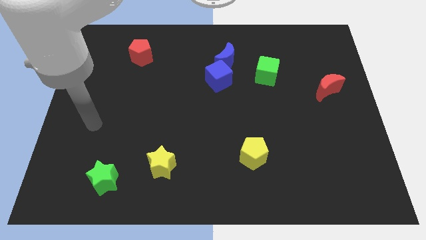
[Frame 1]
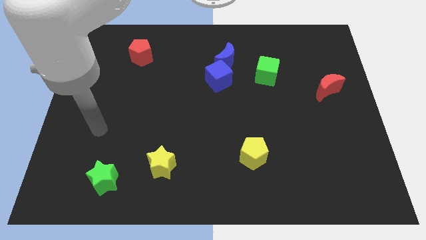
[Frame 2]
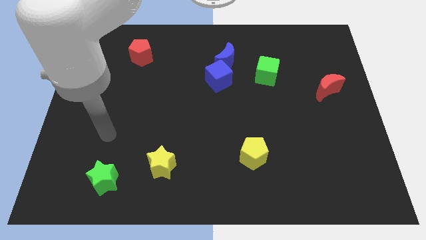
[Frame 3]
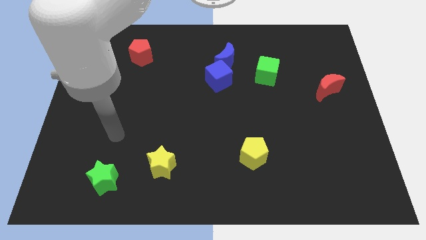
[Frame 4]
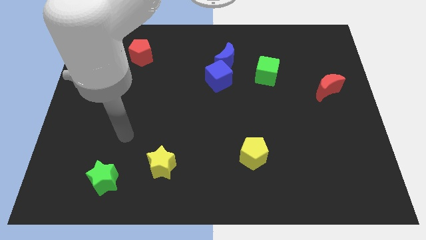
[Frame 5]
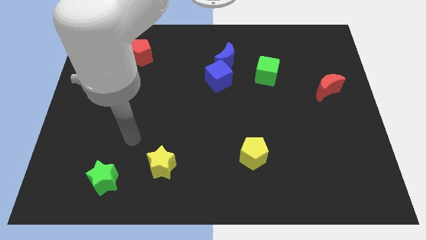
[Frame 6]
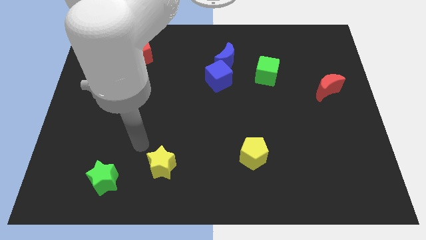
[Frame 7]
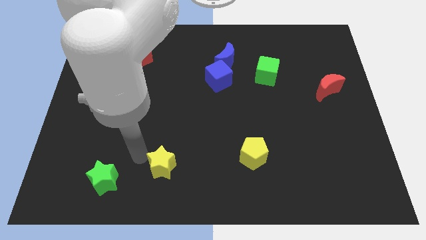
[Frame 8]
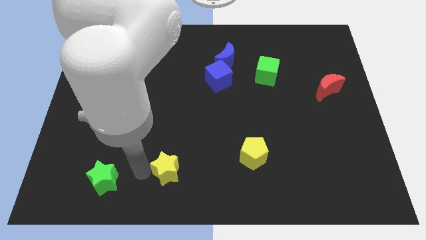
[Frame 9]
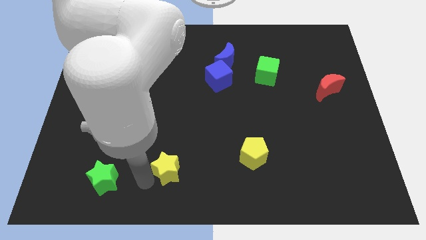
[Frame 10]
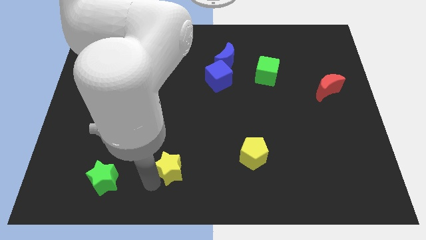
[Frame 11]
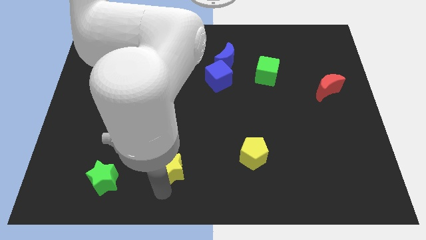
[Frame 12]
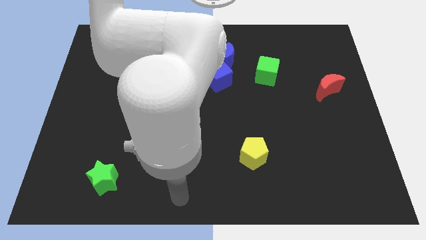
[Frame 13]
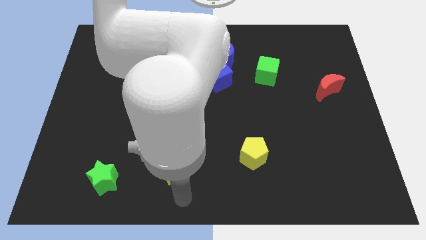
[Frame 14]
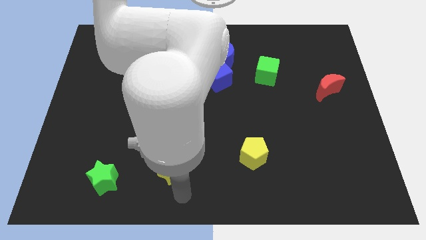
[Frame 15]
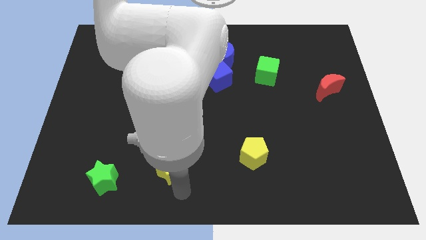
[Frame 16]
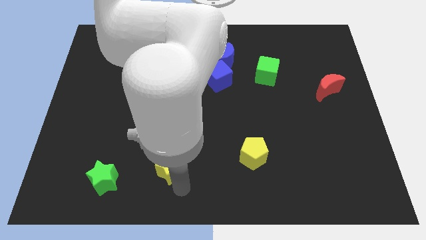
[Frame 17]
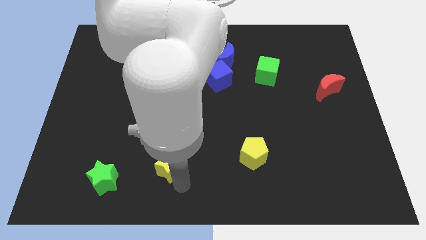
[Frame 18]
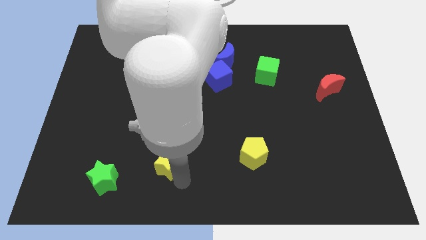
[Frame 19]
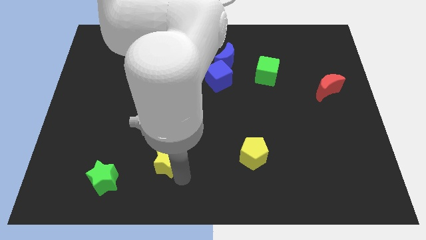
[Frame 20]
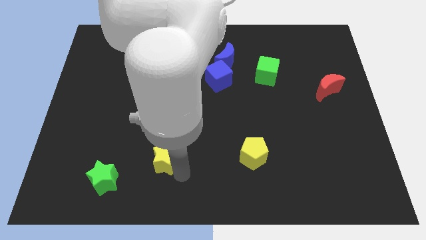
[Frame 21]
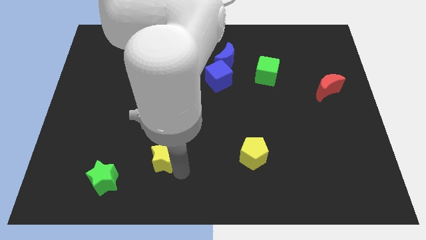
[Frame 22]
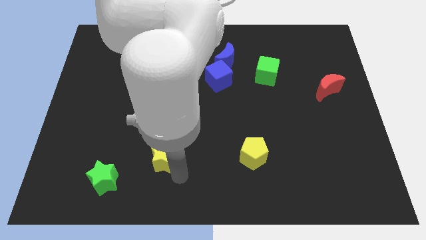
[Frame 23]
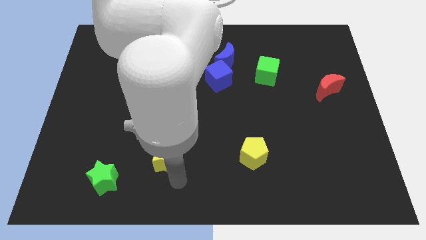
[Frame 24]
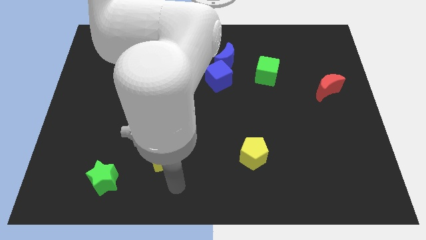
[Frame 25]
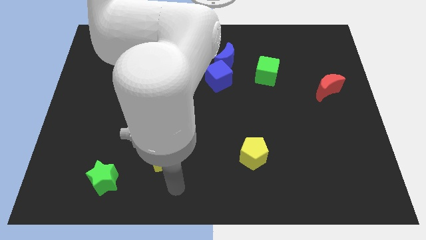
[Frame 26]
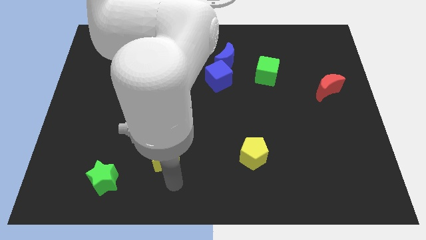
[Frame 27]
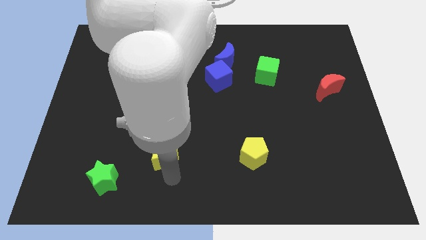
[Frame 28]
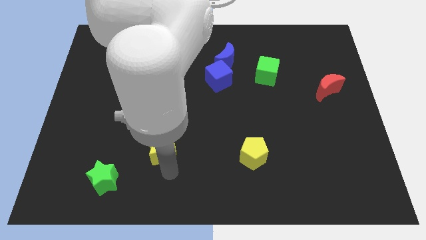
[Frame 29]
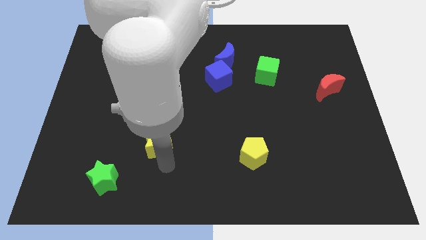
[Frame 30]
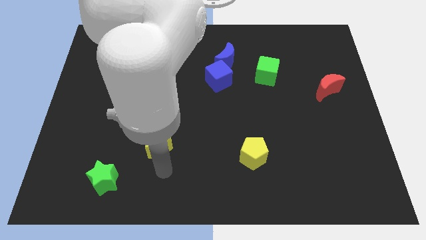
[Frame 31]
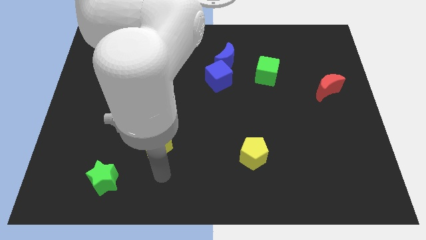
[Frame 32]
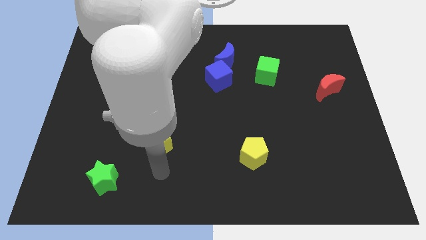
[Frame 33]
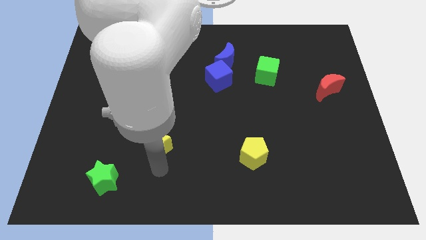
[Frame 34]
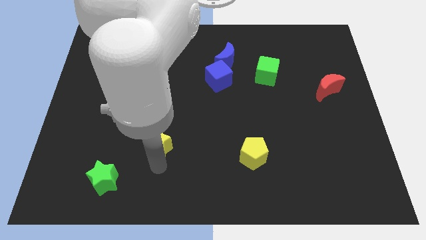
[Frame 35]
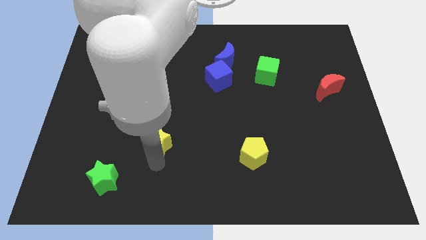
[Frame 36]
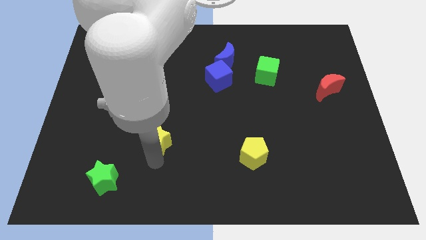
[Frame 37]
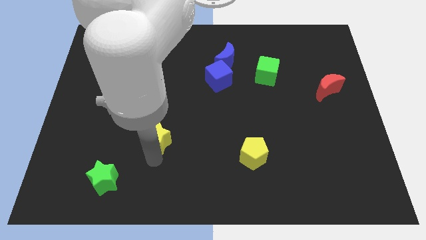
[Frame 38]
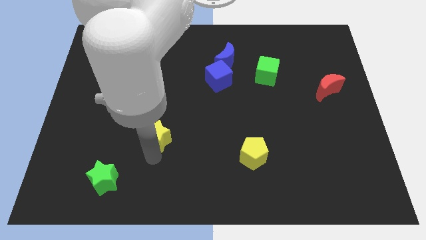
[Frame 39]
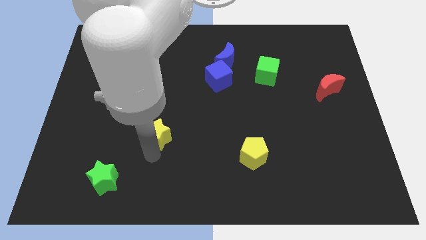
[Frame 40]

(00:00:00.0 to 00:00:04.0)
slightly slide the yellow star upwards

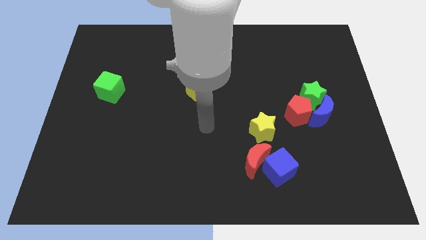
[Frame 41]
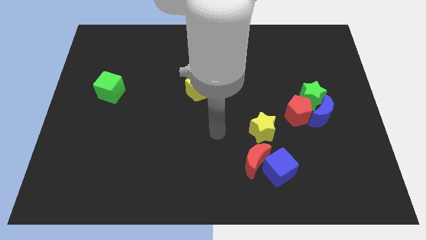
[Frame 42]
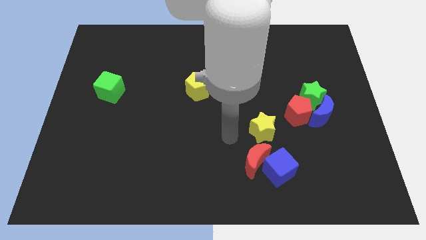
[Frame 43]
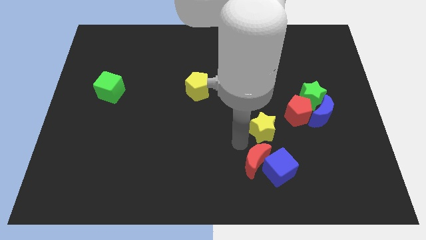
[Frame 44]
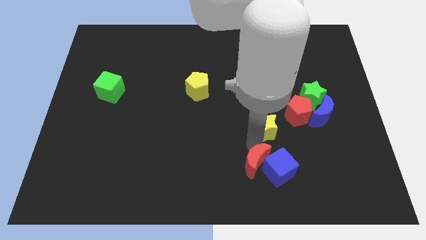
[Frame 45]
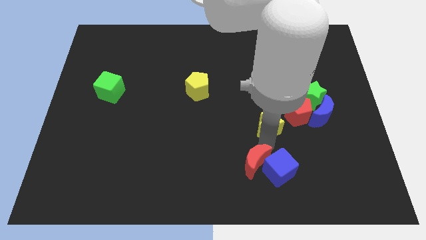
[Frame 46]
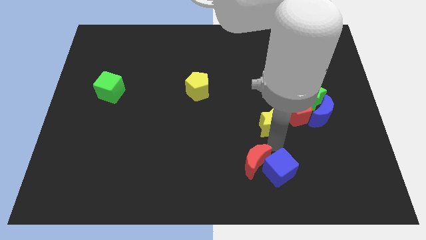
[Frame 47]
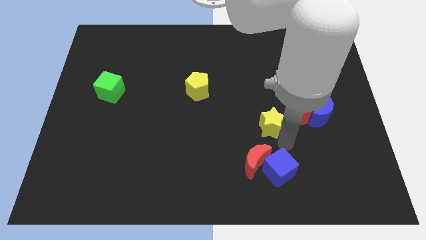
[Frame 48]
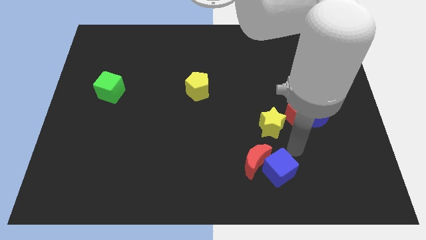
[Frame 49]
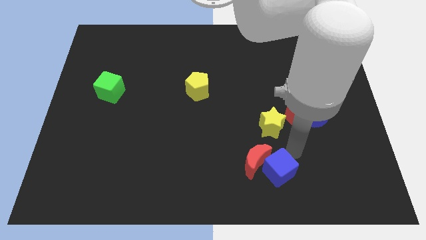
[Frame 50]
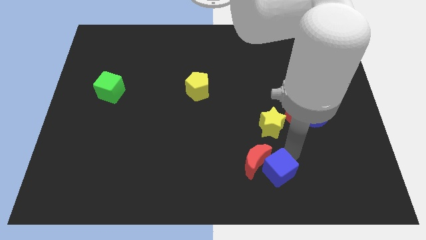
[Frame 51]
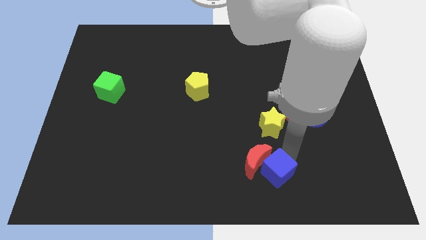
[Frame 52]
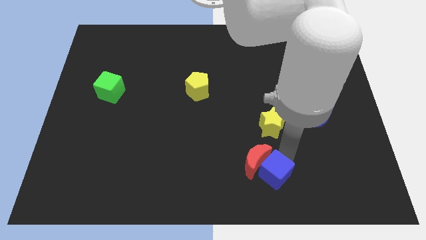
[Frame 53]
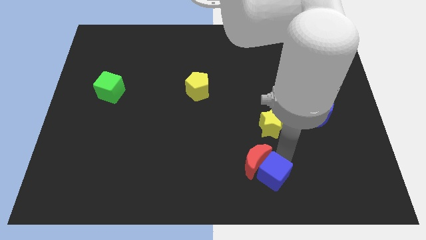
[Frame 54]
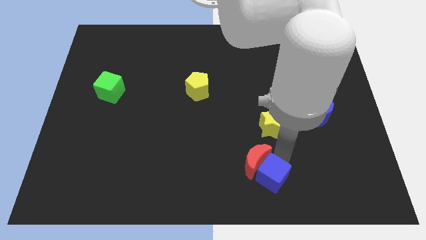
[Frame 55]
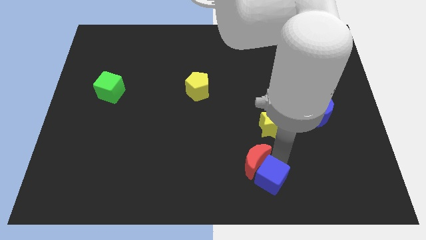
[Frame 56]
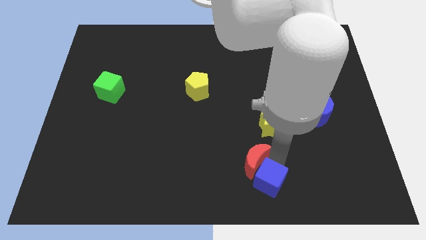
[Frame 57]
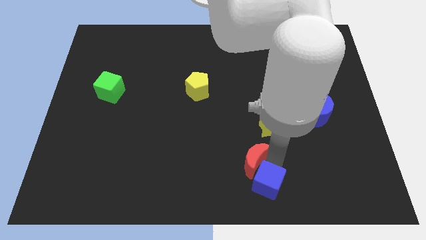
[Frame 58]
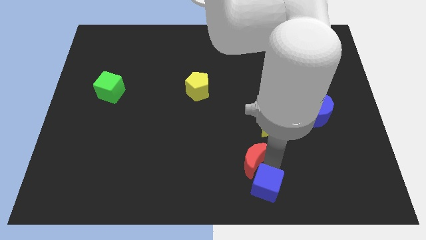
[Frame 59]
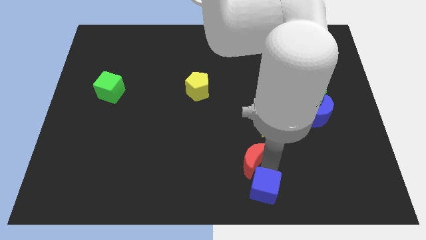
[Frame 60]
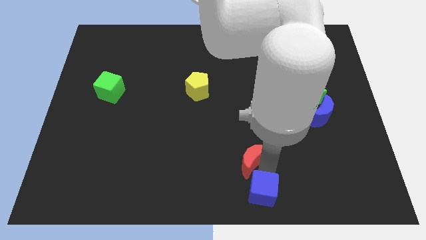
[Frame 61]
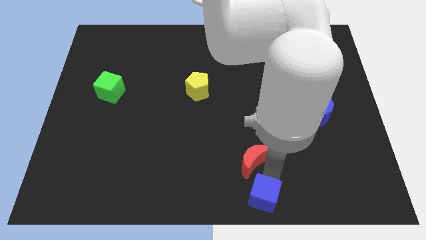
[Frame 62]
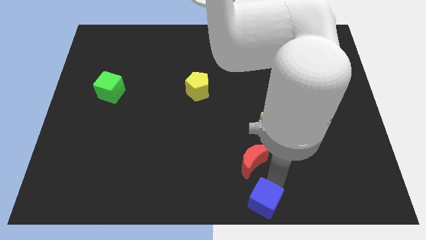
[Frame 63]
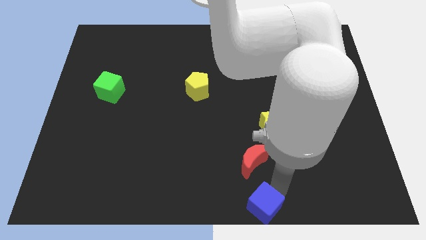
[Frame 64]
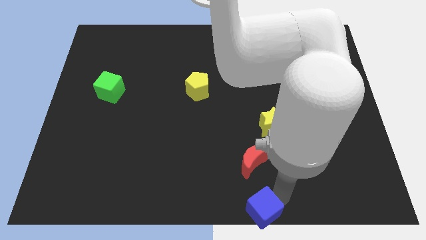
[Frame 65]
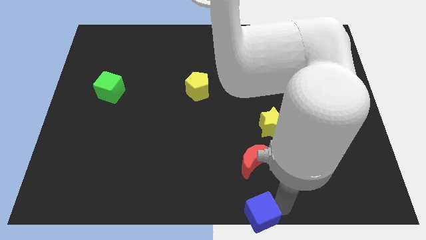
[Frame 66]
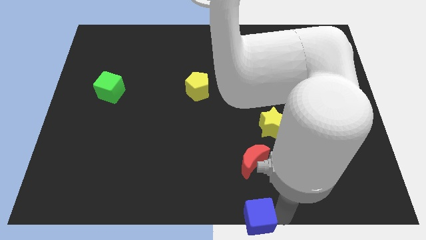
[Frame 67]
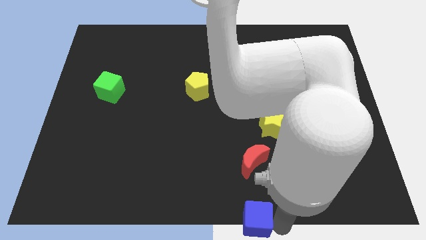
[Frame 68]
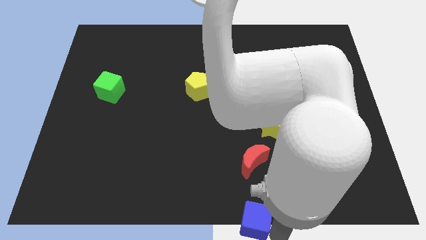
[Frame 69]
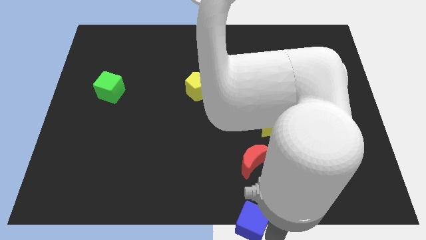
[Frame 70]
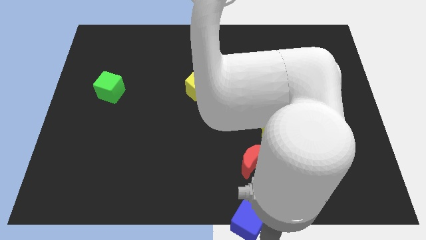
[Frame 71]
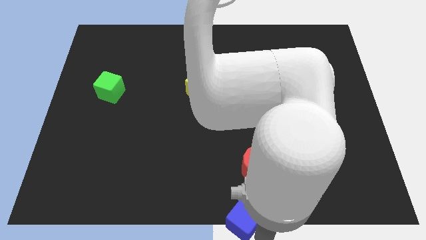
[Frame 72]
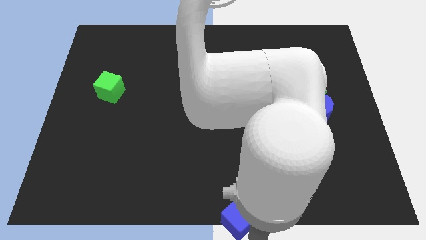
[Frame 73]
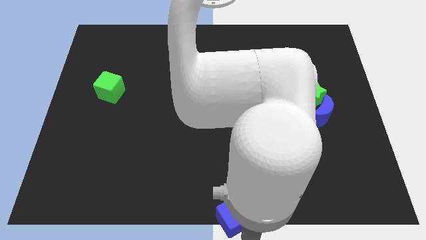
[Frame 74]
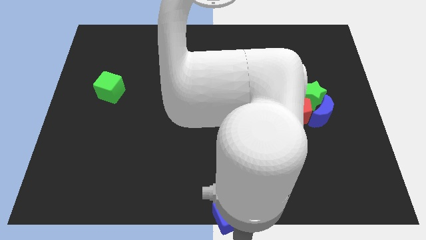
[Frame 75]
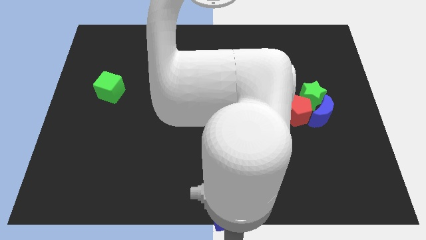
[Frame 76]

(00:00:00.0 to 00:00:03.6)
slightly slide the blue cube left
